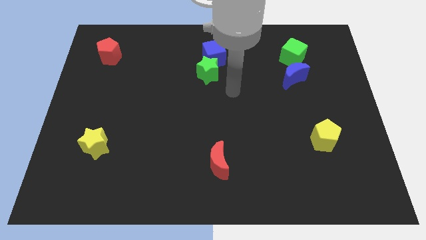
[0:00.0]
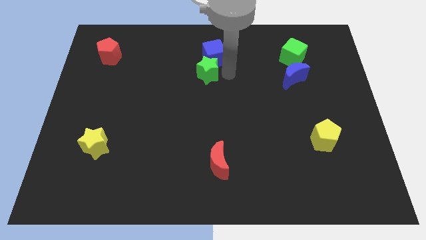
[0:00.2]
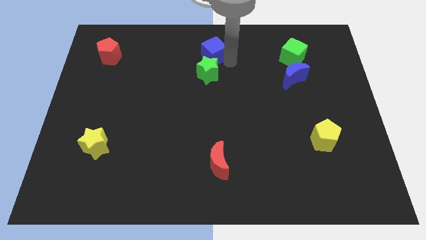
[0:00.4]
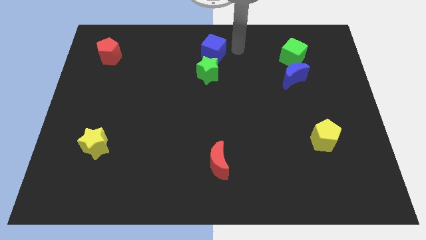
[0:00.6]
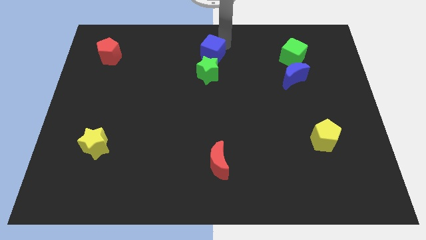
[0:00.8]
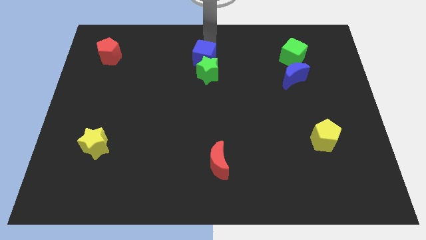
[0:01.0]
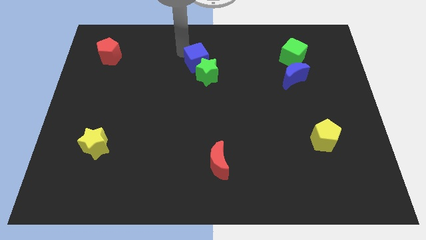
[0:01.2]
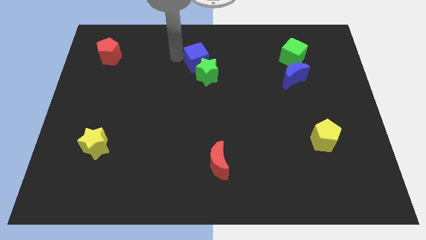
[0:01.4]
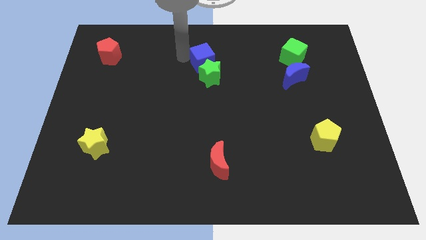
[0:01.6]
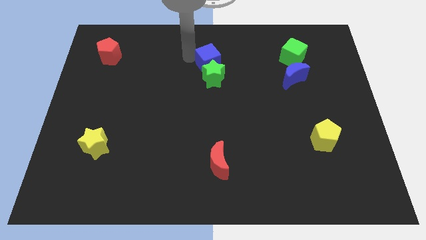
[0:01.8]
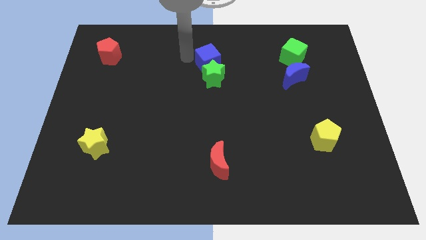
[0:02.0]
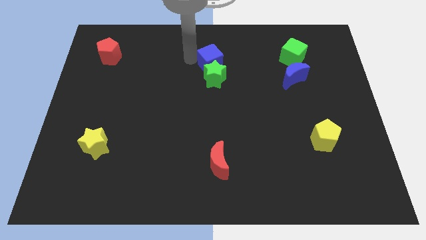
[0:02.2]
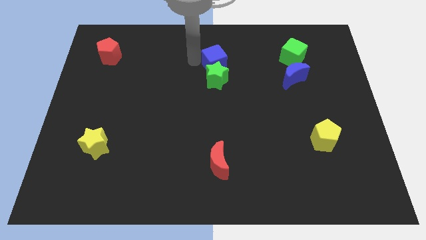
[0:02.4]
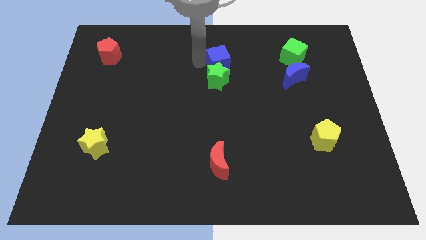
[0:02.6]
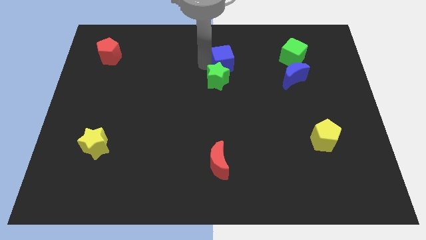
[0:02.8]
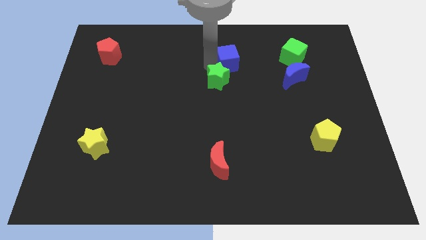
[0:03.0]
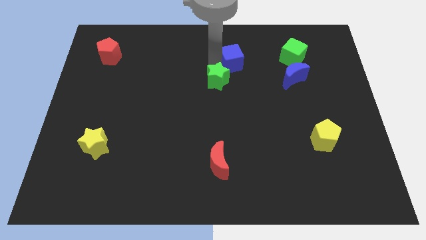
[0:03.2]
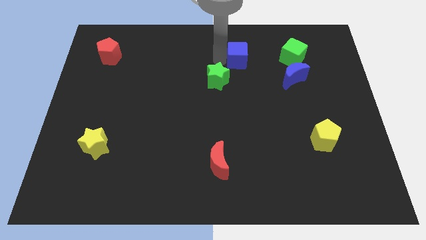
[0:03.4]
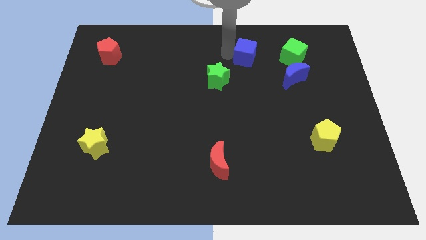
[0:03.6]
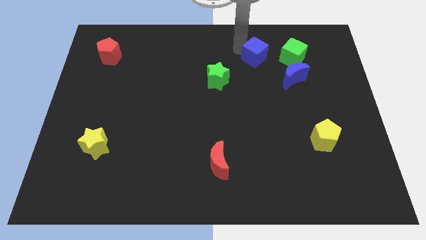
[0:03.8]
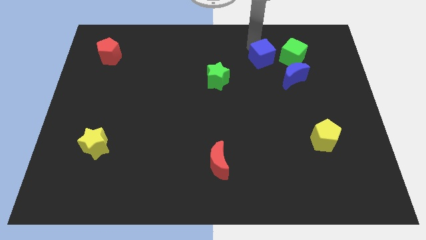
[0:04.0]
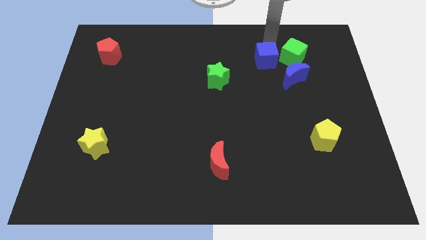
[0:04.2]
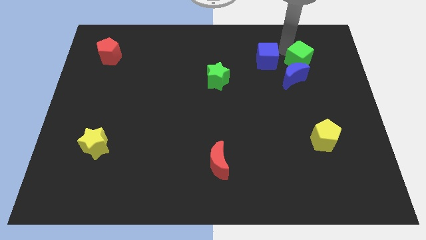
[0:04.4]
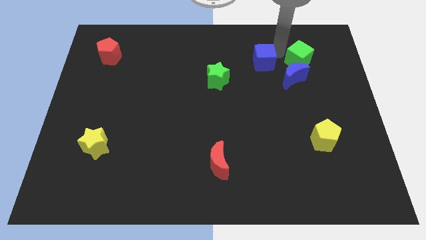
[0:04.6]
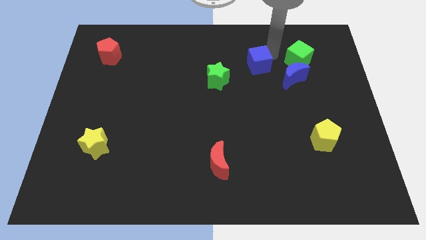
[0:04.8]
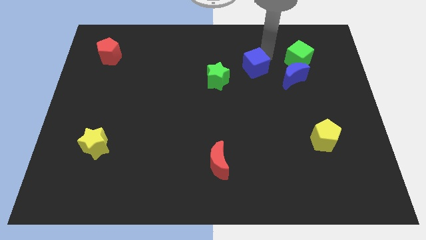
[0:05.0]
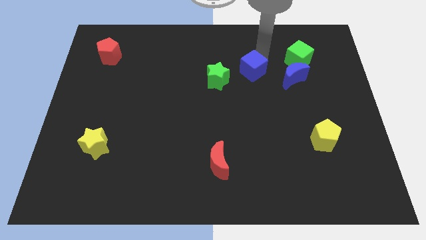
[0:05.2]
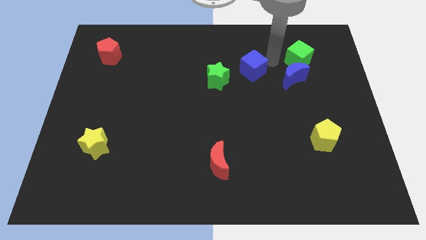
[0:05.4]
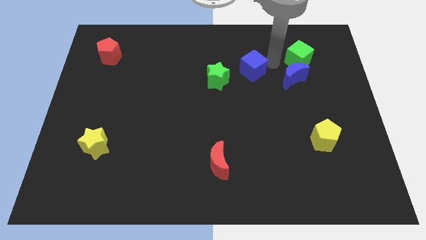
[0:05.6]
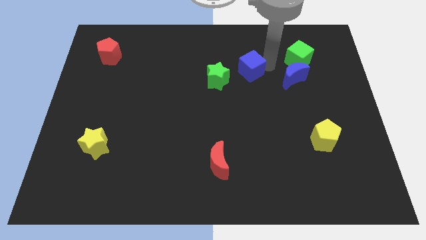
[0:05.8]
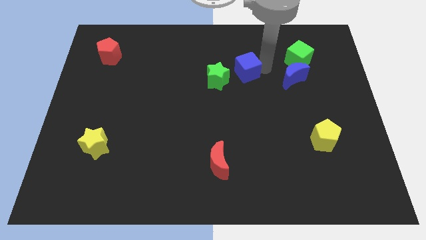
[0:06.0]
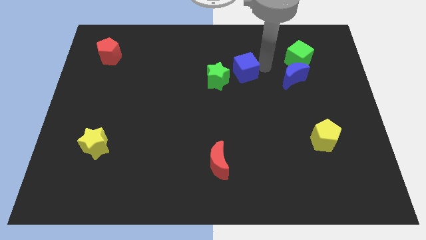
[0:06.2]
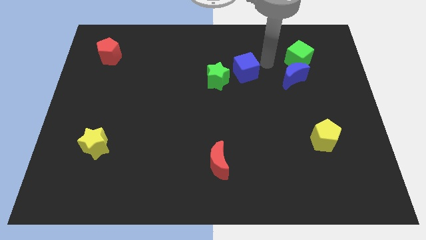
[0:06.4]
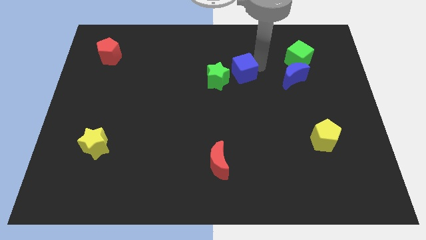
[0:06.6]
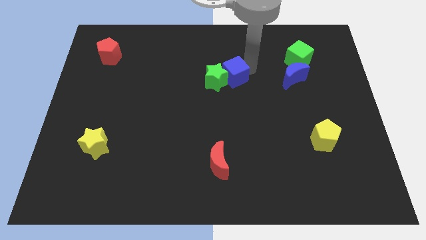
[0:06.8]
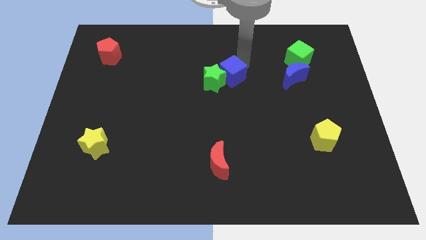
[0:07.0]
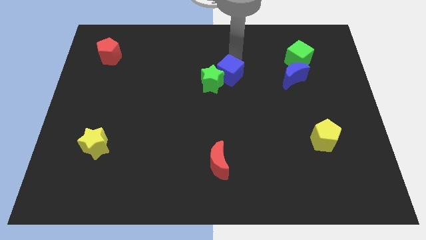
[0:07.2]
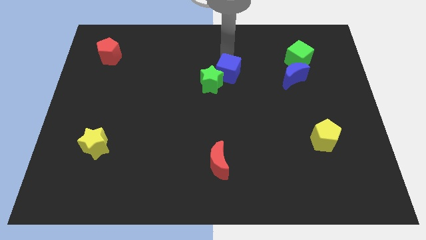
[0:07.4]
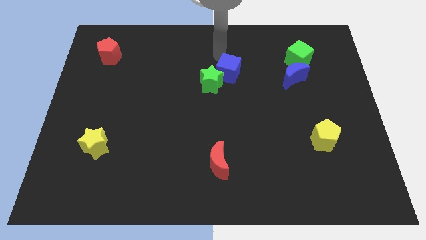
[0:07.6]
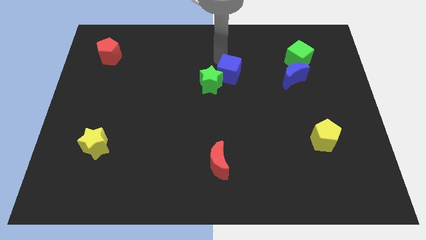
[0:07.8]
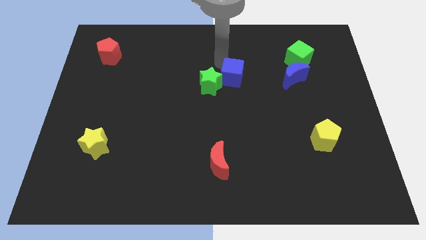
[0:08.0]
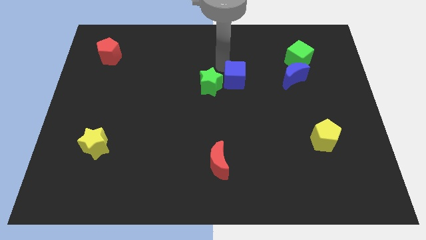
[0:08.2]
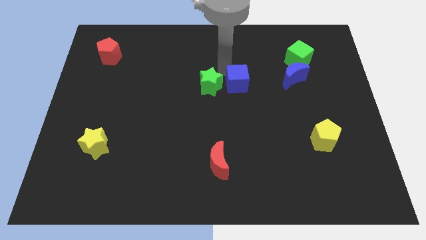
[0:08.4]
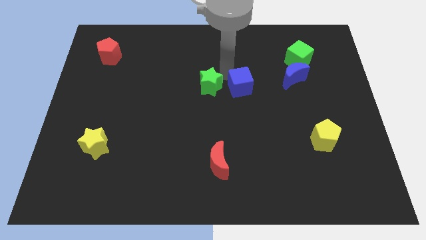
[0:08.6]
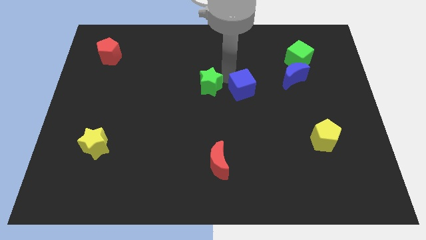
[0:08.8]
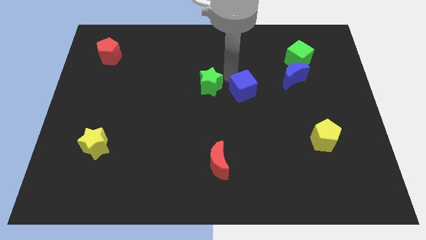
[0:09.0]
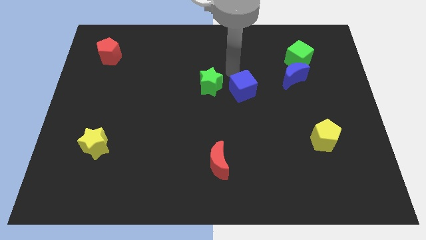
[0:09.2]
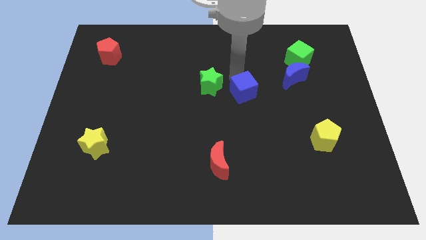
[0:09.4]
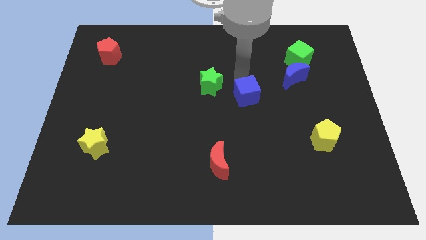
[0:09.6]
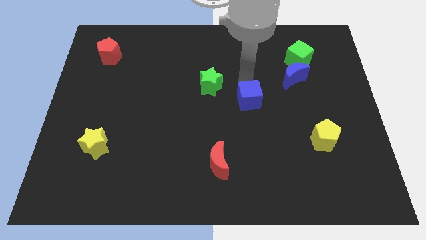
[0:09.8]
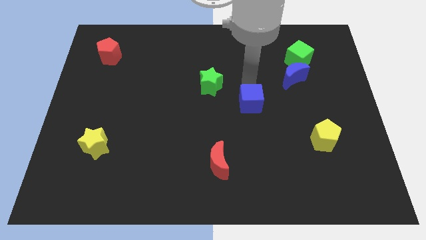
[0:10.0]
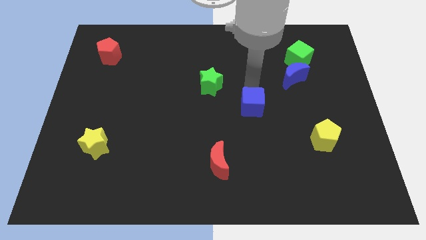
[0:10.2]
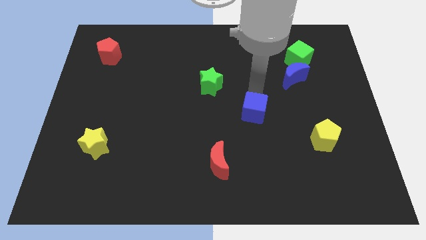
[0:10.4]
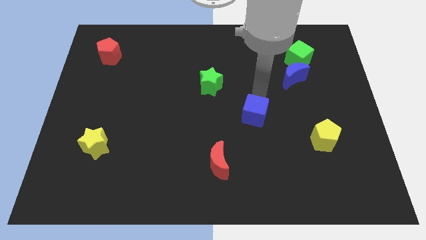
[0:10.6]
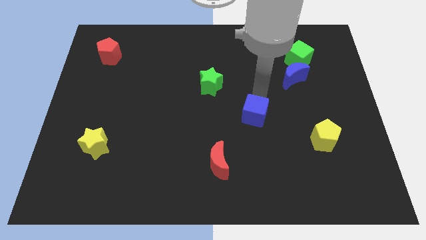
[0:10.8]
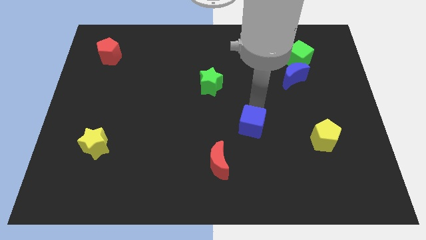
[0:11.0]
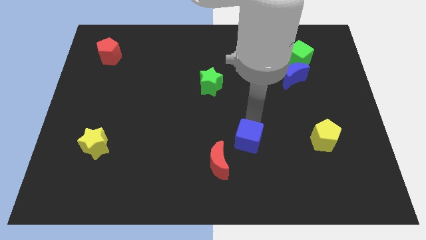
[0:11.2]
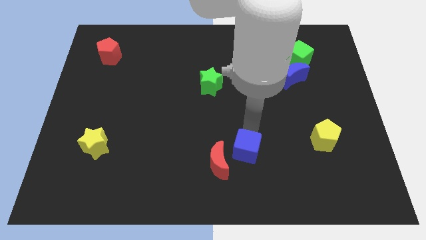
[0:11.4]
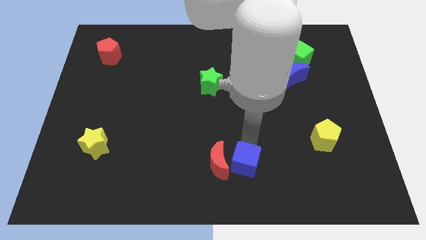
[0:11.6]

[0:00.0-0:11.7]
slide the blue cube to the bottom
